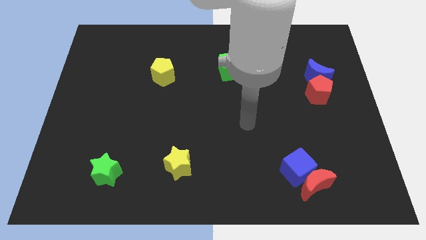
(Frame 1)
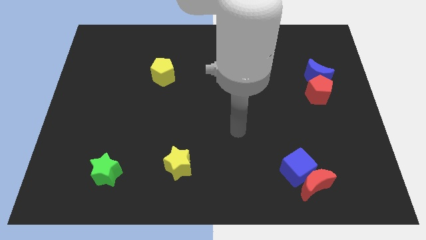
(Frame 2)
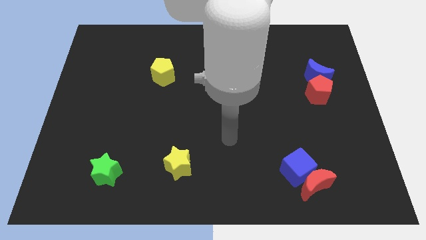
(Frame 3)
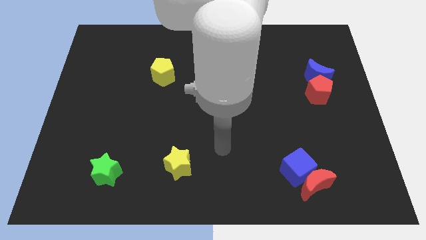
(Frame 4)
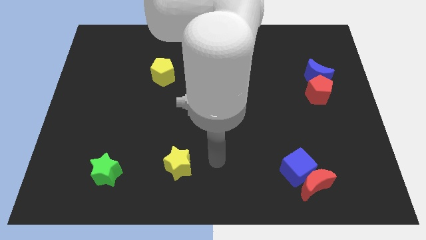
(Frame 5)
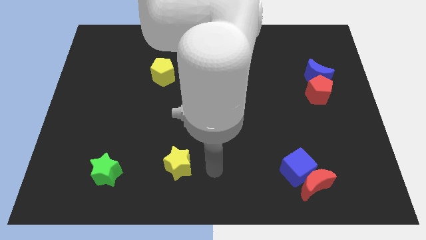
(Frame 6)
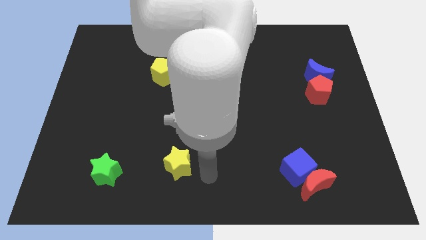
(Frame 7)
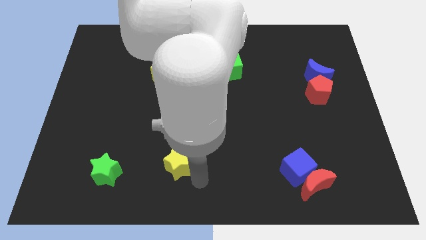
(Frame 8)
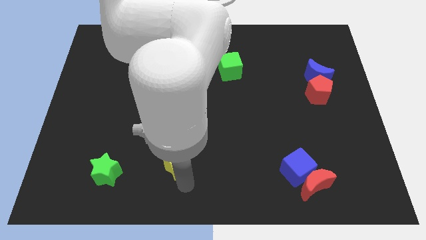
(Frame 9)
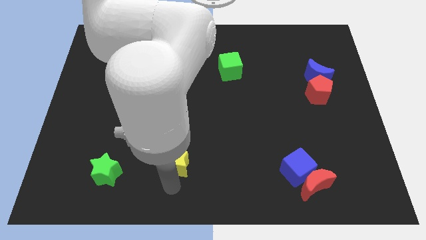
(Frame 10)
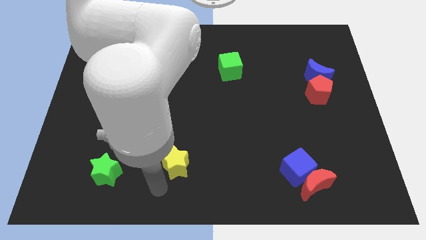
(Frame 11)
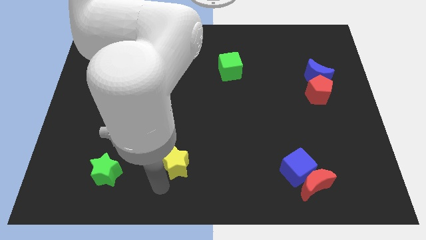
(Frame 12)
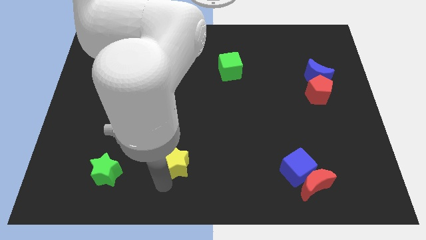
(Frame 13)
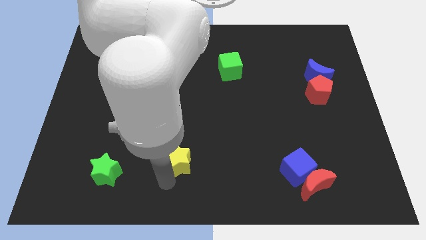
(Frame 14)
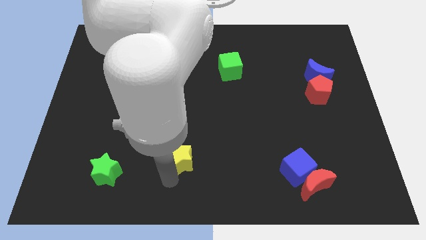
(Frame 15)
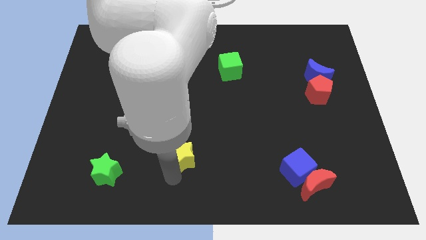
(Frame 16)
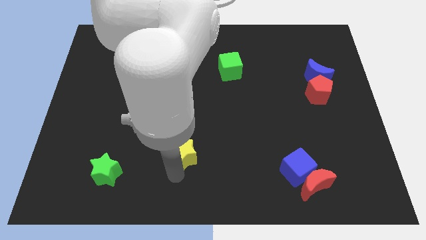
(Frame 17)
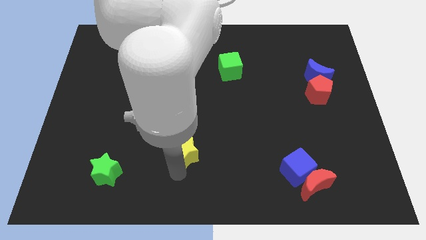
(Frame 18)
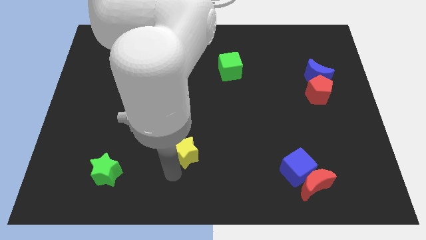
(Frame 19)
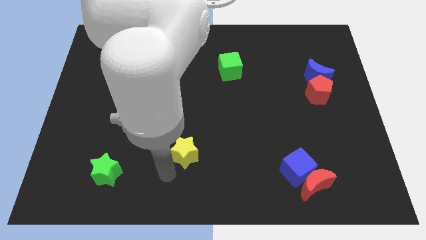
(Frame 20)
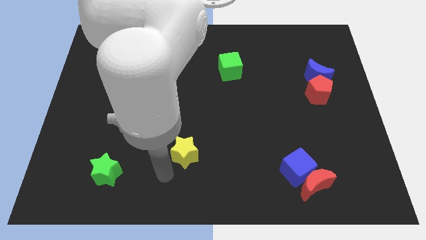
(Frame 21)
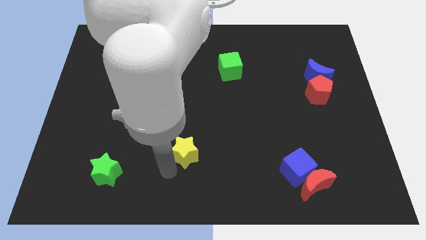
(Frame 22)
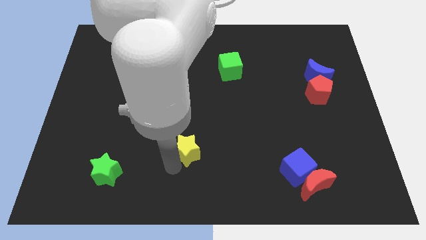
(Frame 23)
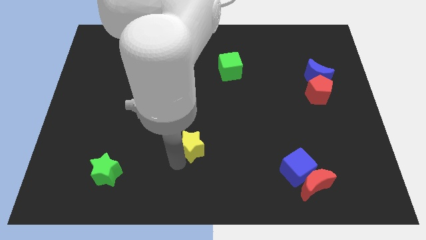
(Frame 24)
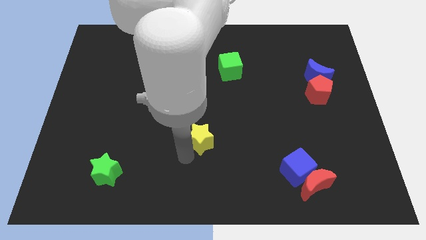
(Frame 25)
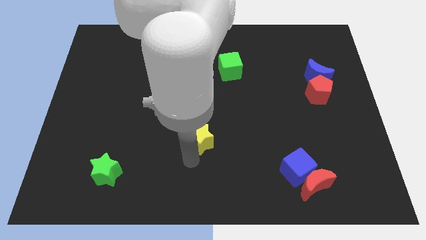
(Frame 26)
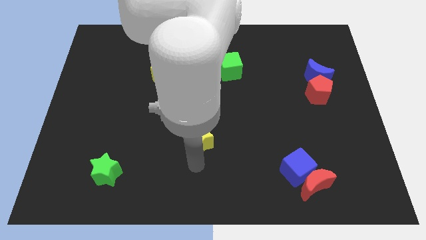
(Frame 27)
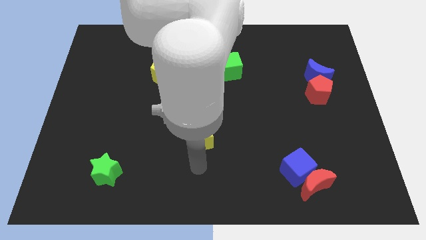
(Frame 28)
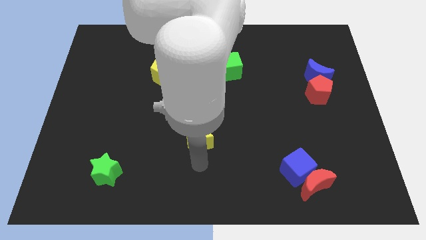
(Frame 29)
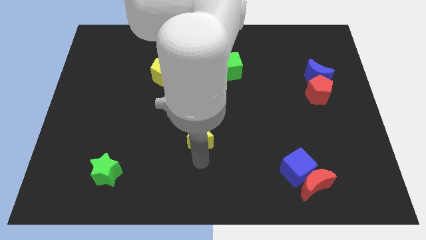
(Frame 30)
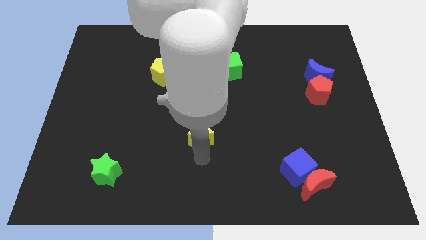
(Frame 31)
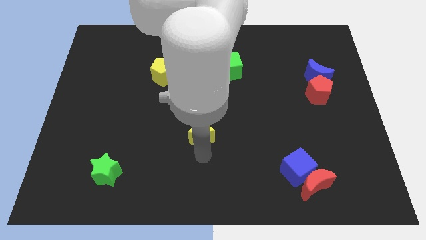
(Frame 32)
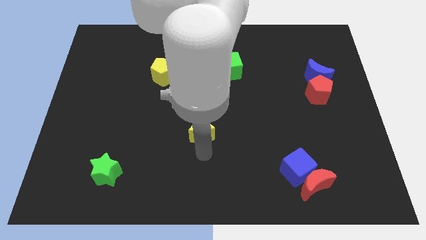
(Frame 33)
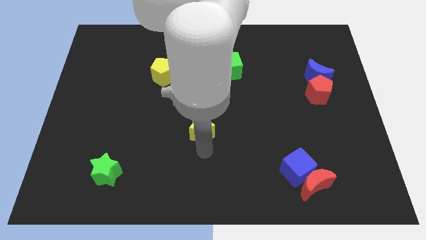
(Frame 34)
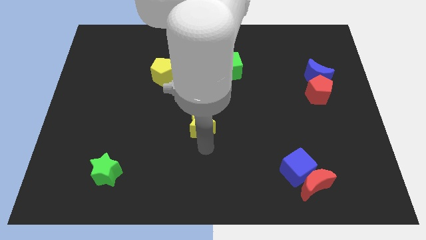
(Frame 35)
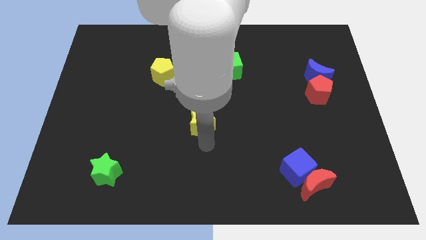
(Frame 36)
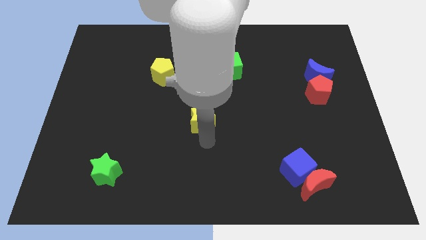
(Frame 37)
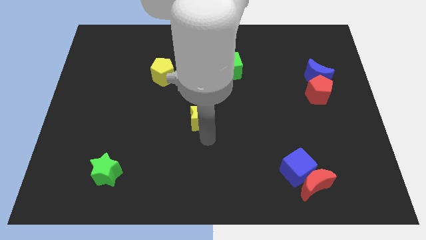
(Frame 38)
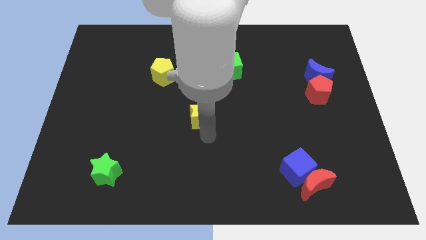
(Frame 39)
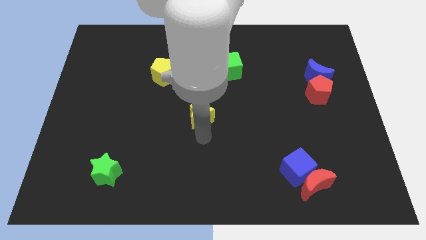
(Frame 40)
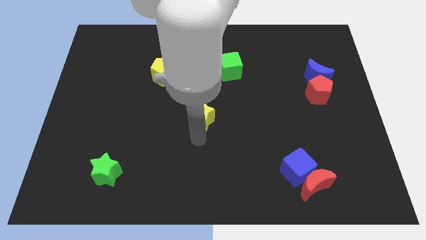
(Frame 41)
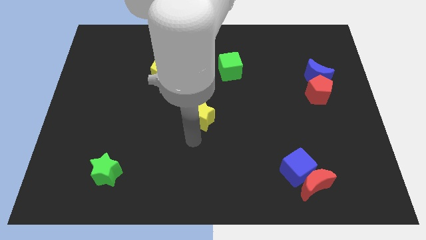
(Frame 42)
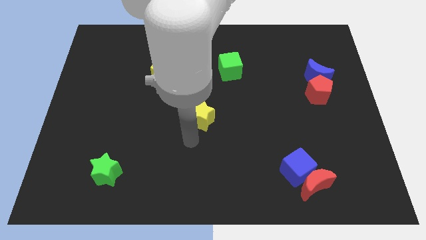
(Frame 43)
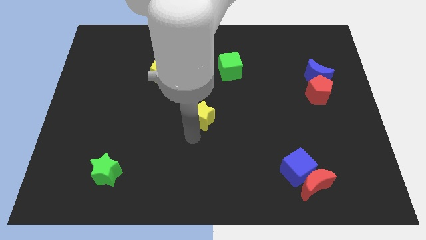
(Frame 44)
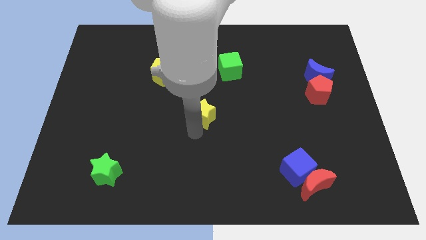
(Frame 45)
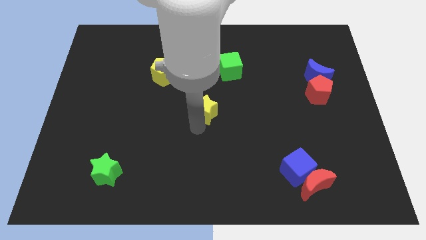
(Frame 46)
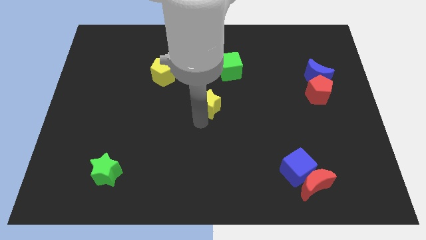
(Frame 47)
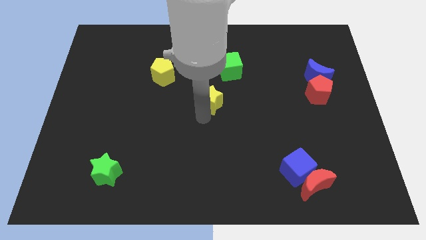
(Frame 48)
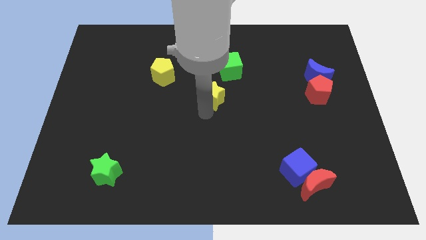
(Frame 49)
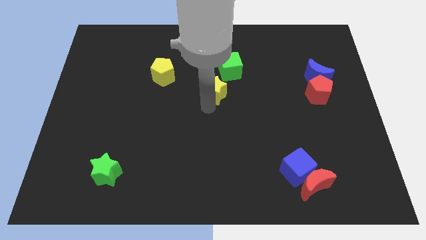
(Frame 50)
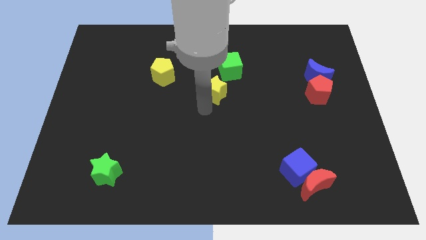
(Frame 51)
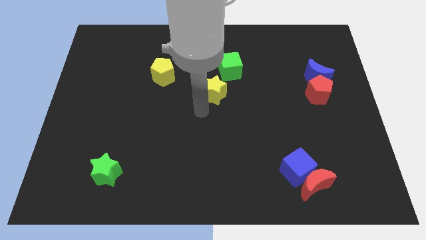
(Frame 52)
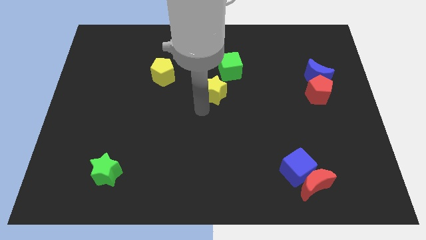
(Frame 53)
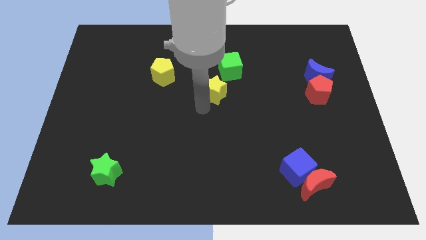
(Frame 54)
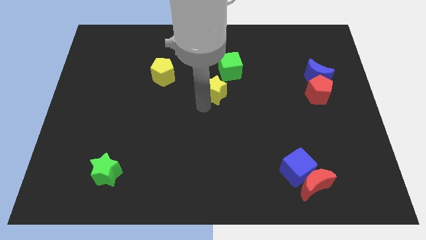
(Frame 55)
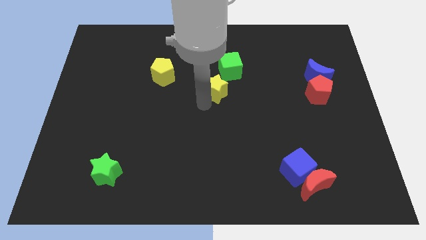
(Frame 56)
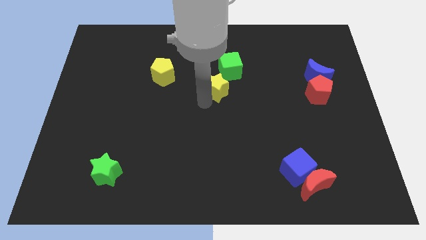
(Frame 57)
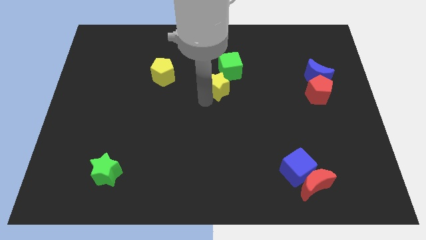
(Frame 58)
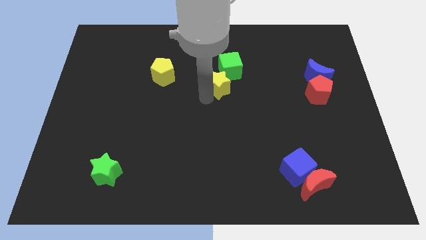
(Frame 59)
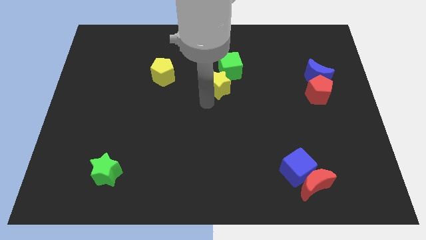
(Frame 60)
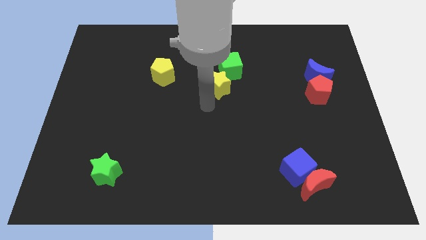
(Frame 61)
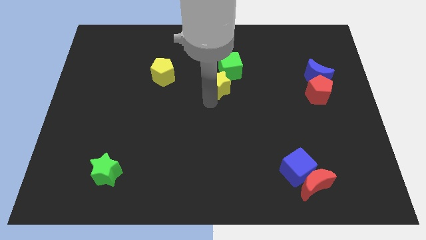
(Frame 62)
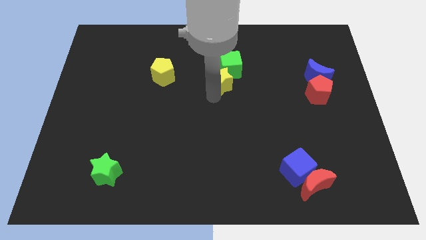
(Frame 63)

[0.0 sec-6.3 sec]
push the yellow star to the green cube

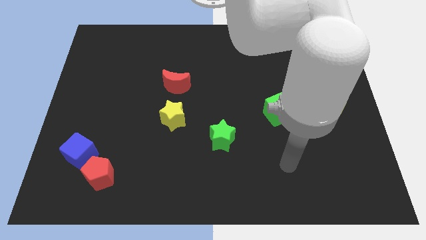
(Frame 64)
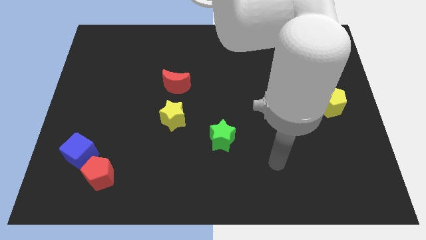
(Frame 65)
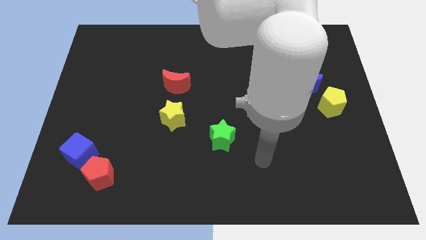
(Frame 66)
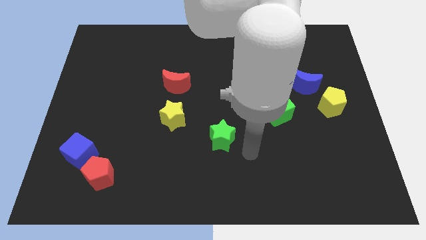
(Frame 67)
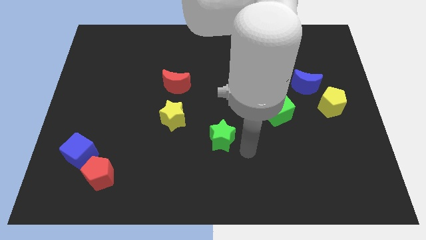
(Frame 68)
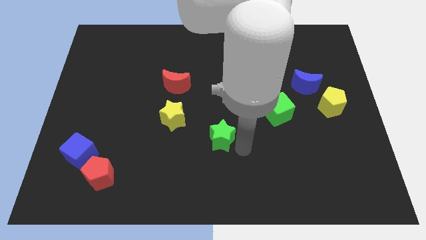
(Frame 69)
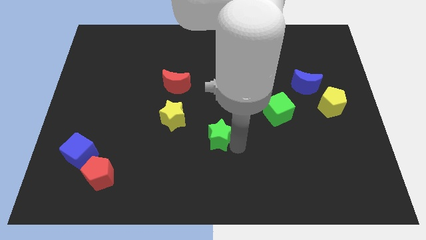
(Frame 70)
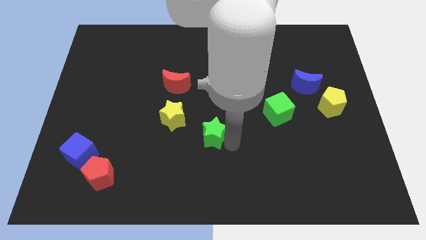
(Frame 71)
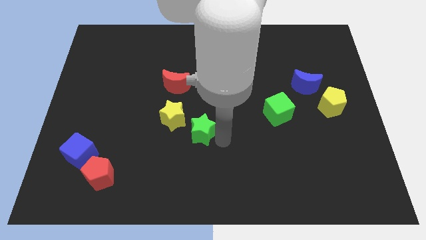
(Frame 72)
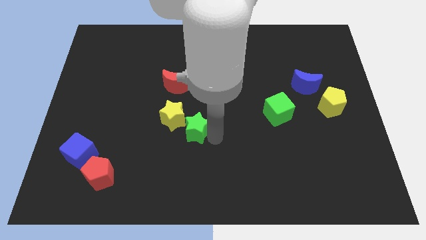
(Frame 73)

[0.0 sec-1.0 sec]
put the green star close to the yellow star
